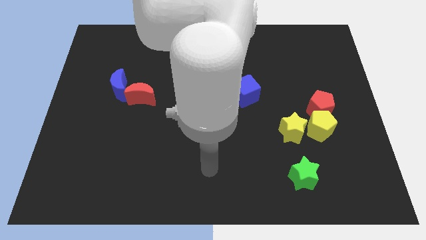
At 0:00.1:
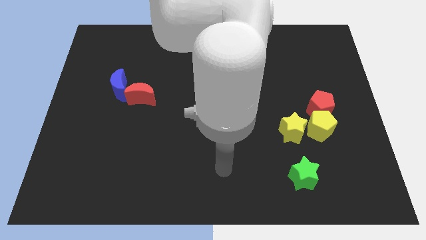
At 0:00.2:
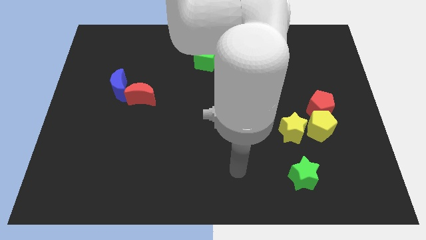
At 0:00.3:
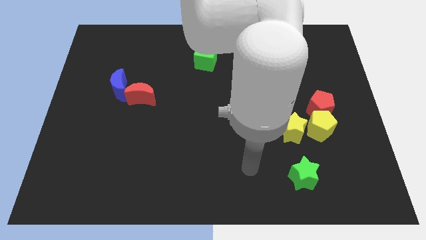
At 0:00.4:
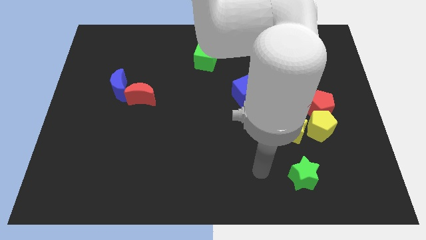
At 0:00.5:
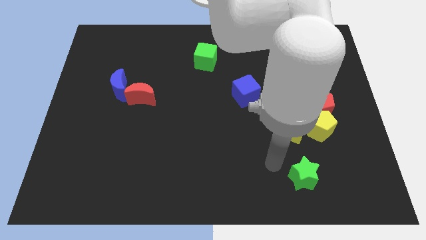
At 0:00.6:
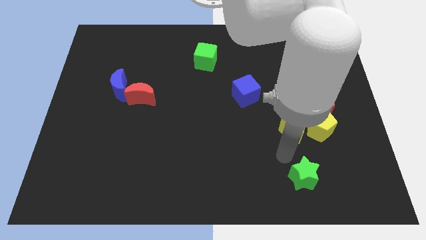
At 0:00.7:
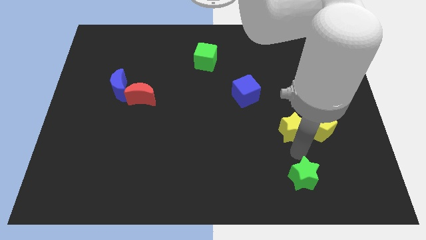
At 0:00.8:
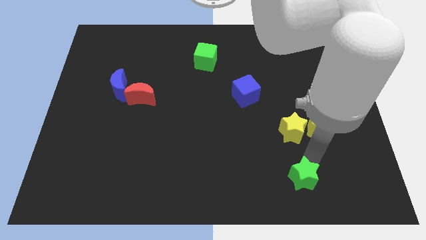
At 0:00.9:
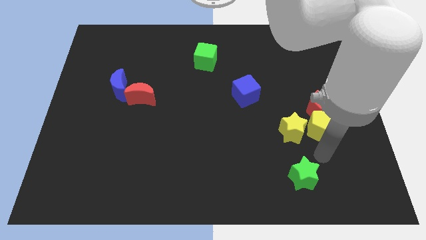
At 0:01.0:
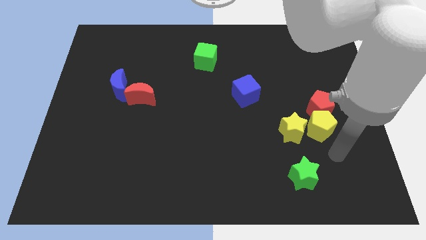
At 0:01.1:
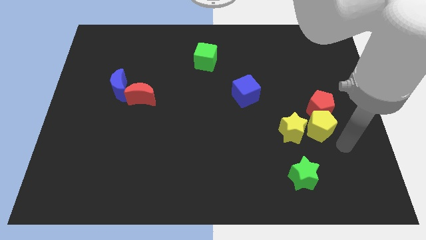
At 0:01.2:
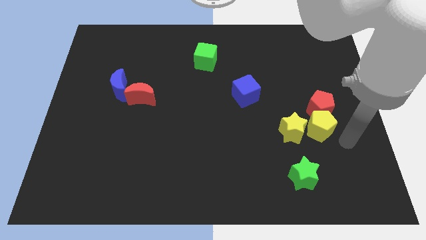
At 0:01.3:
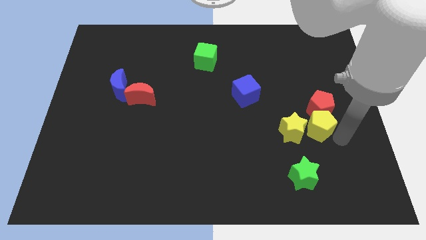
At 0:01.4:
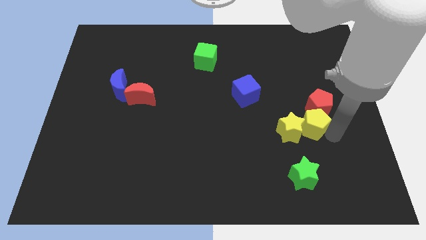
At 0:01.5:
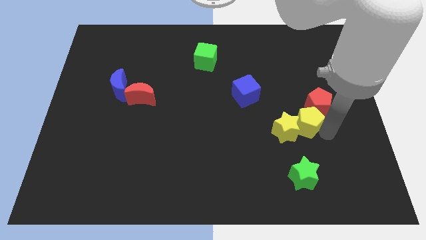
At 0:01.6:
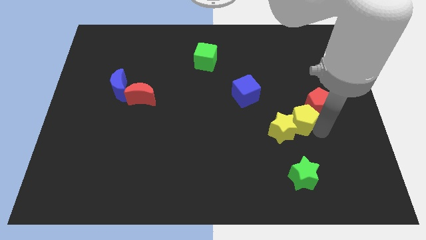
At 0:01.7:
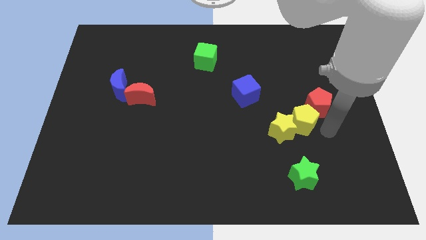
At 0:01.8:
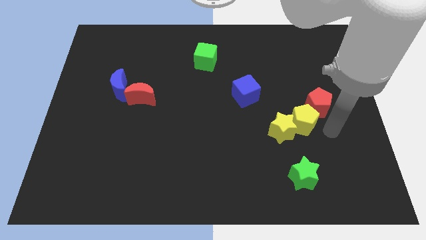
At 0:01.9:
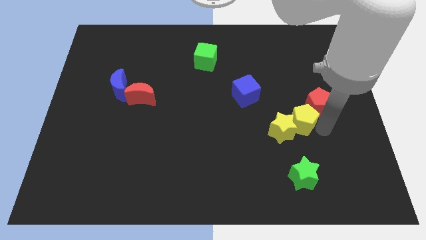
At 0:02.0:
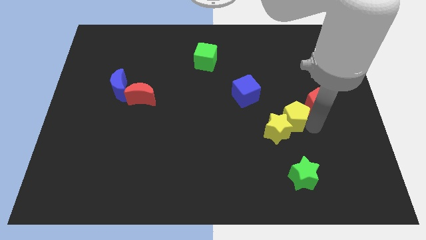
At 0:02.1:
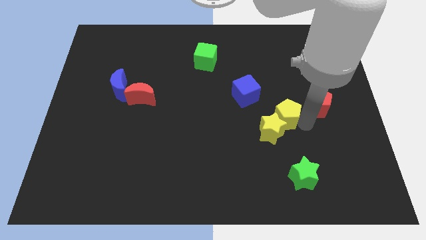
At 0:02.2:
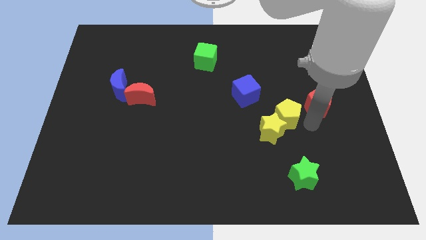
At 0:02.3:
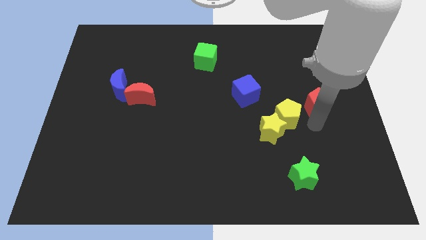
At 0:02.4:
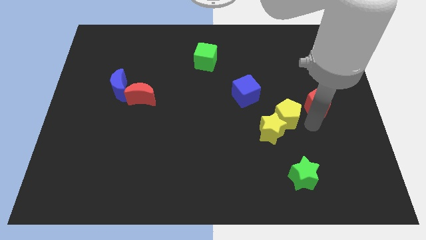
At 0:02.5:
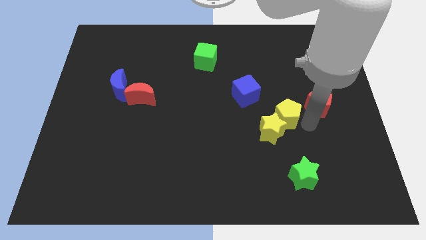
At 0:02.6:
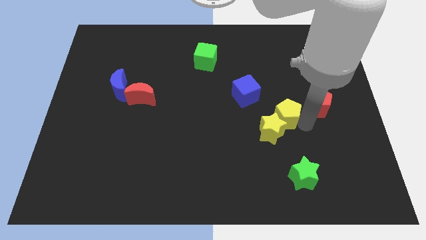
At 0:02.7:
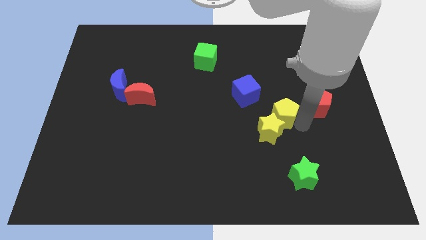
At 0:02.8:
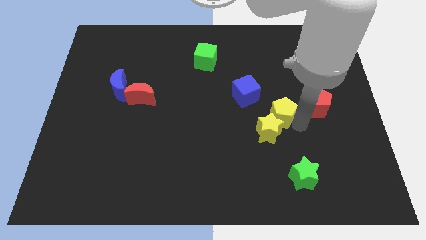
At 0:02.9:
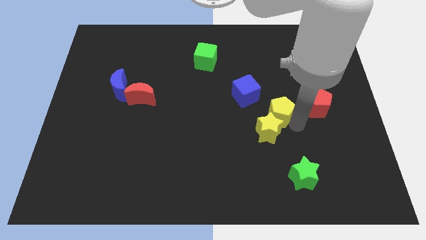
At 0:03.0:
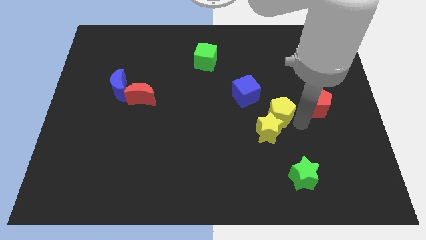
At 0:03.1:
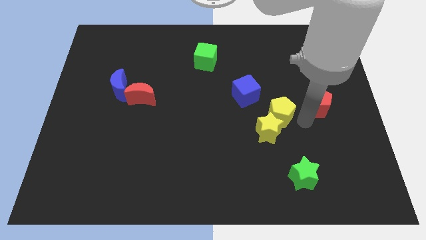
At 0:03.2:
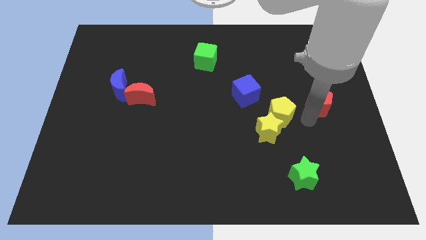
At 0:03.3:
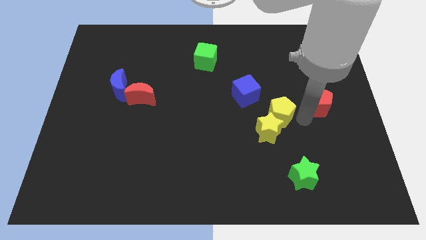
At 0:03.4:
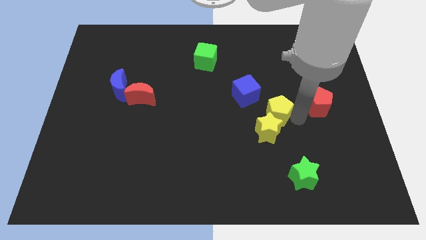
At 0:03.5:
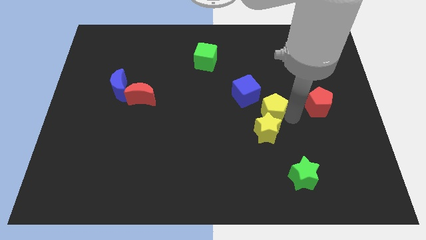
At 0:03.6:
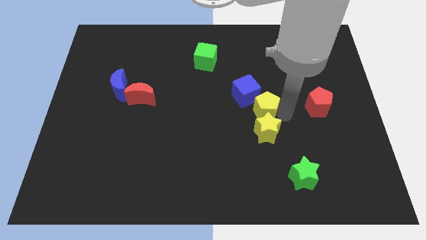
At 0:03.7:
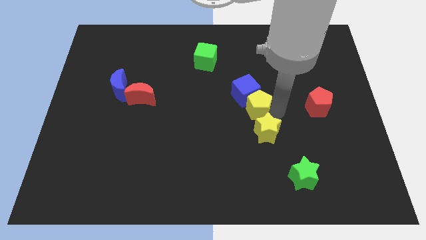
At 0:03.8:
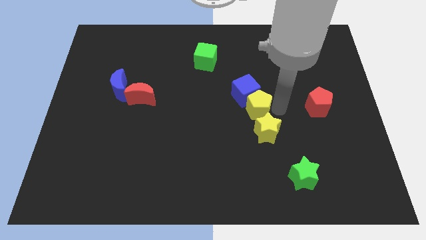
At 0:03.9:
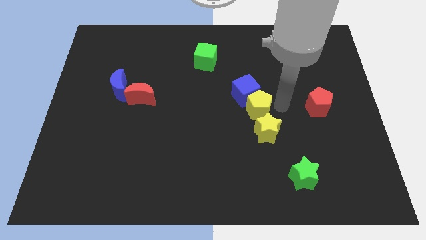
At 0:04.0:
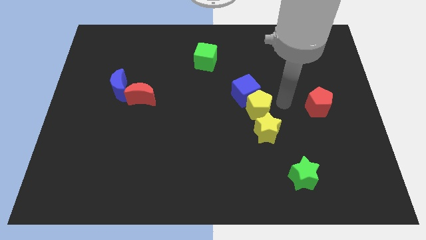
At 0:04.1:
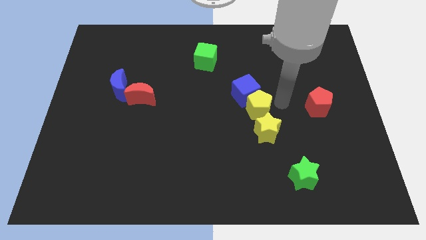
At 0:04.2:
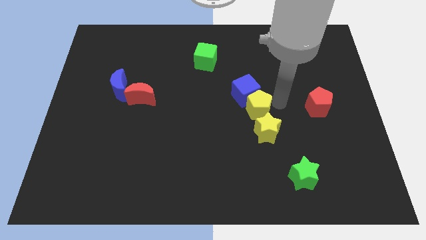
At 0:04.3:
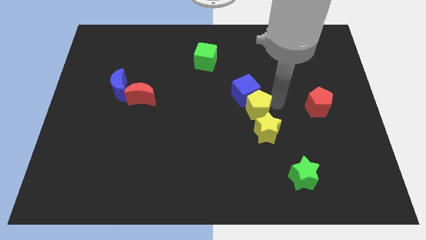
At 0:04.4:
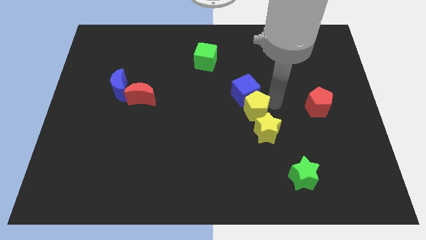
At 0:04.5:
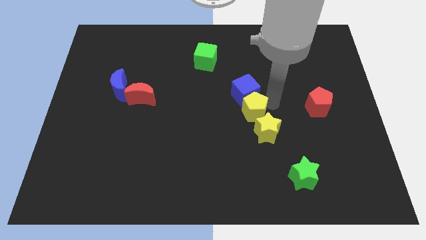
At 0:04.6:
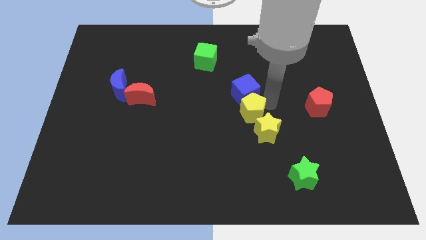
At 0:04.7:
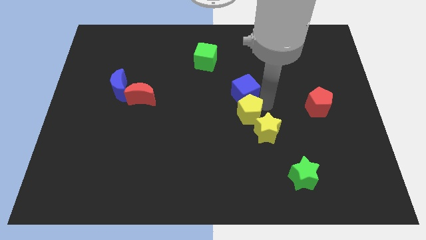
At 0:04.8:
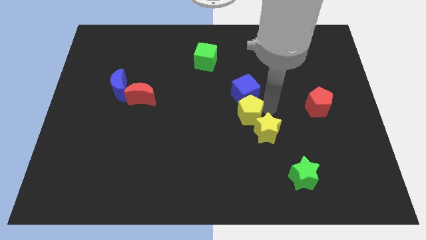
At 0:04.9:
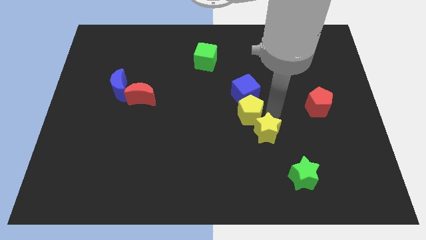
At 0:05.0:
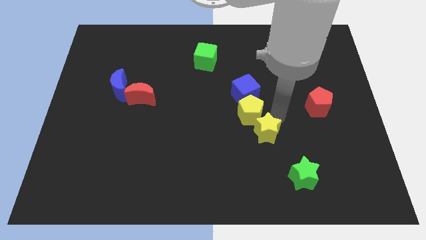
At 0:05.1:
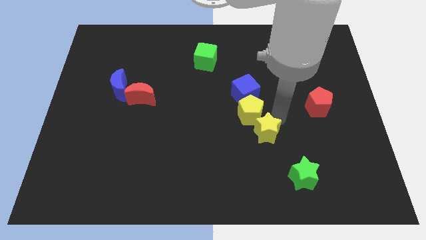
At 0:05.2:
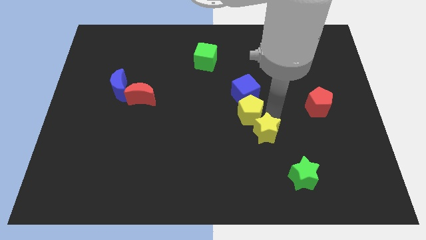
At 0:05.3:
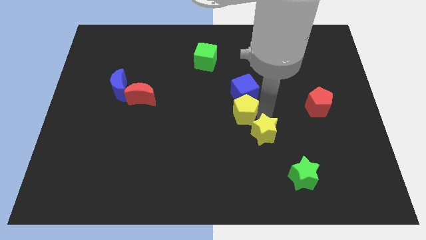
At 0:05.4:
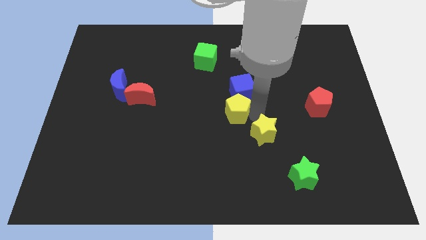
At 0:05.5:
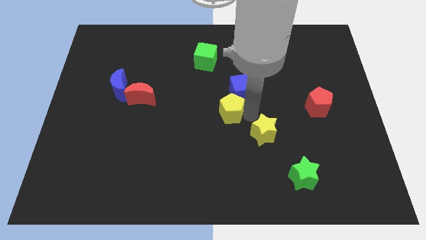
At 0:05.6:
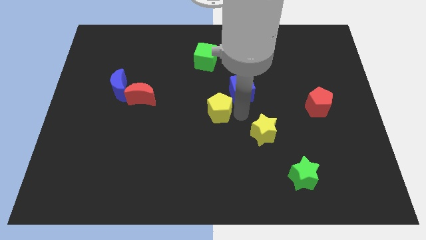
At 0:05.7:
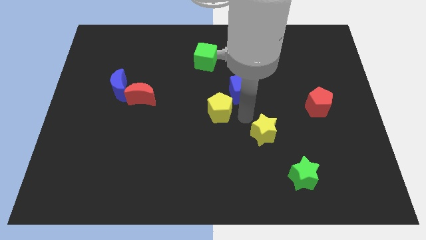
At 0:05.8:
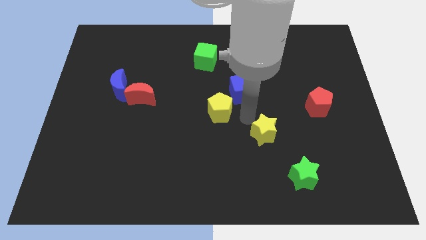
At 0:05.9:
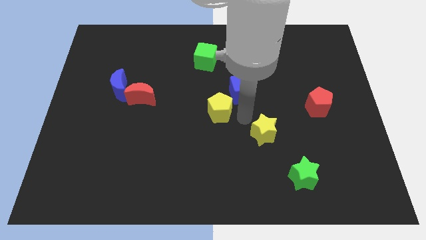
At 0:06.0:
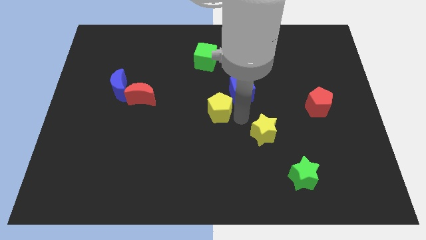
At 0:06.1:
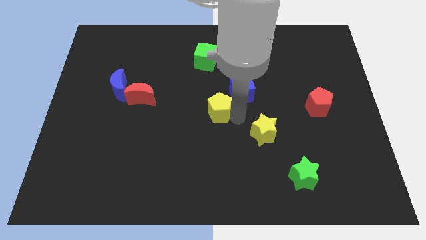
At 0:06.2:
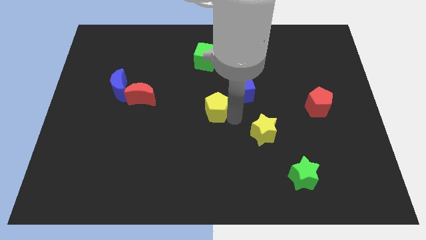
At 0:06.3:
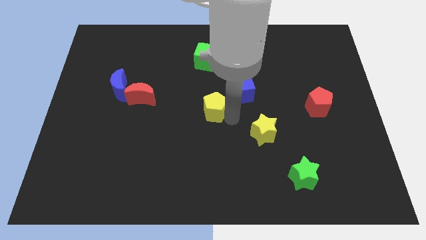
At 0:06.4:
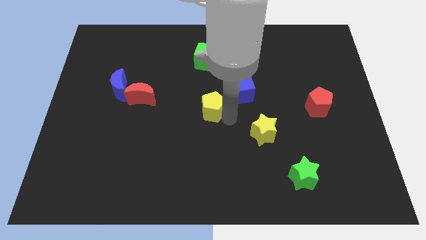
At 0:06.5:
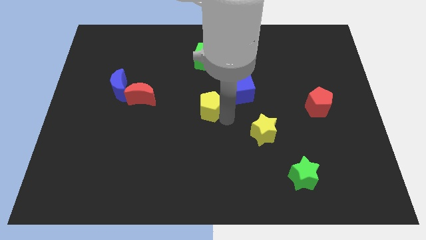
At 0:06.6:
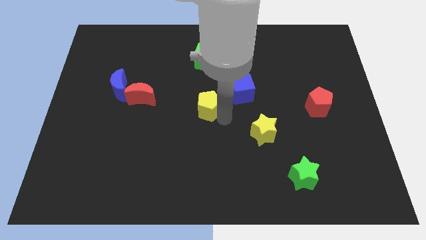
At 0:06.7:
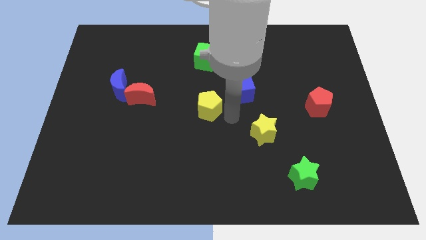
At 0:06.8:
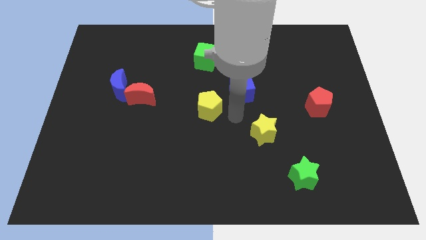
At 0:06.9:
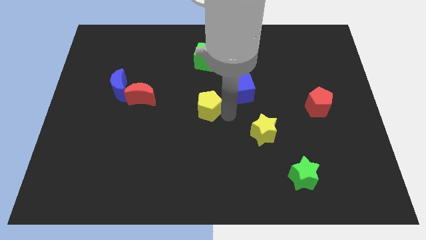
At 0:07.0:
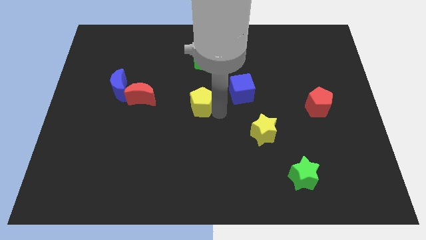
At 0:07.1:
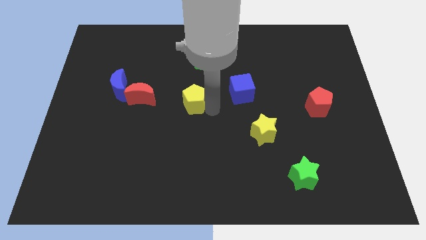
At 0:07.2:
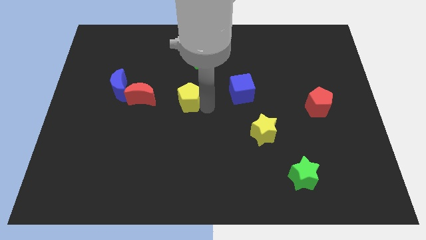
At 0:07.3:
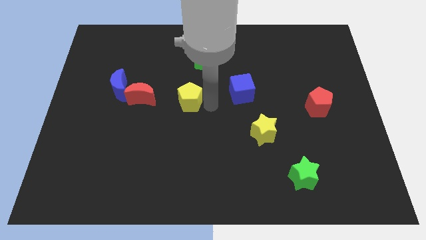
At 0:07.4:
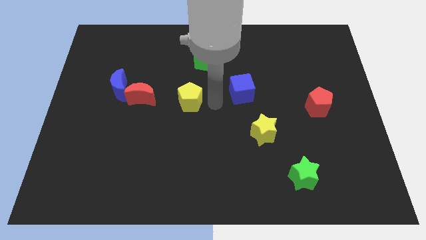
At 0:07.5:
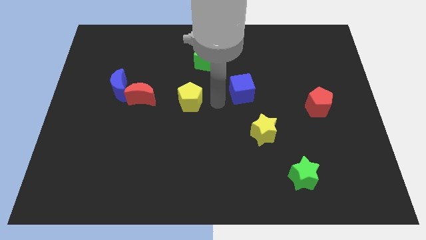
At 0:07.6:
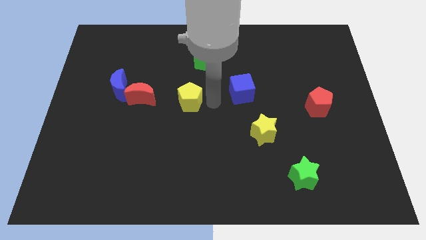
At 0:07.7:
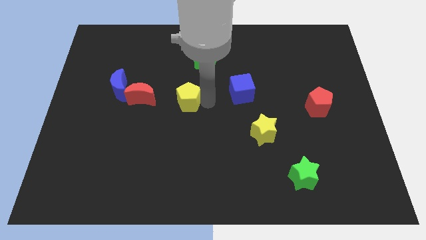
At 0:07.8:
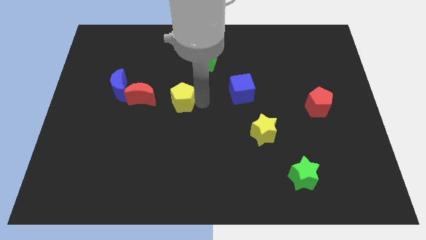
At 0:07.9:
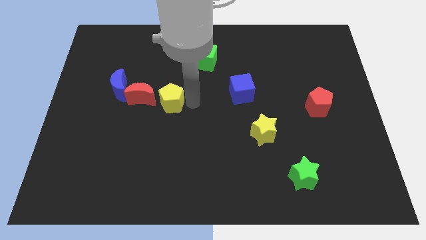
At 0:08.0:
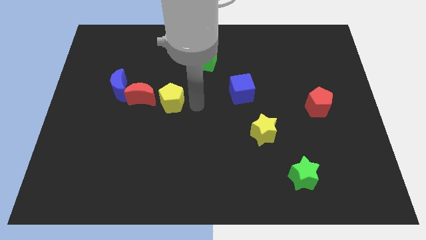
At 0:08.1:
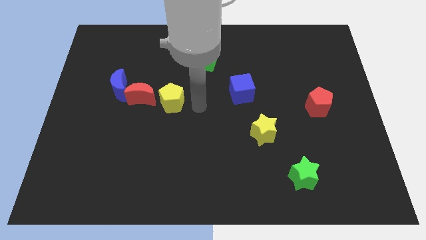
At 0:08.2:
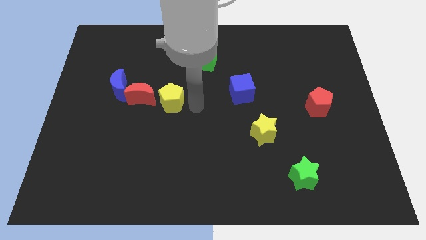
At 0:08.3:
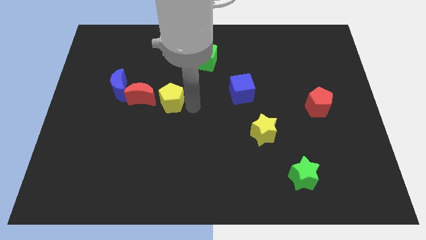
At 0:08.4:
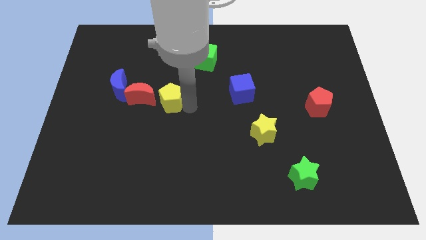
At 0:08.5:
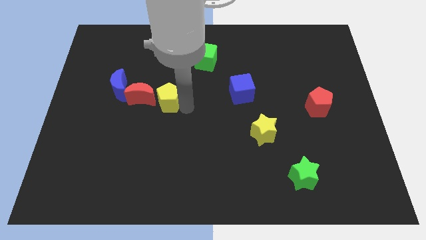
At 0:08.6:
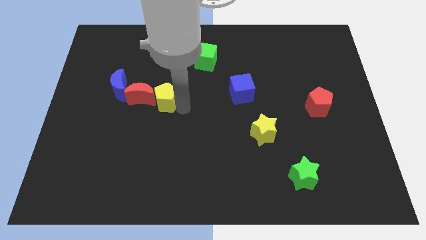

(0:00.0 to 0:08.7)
push the yellow pentagon towards the red moon
